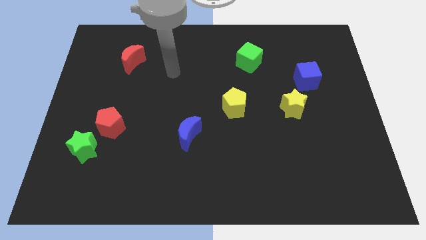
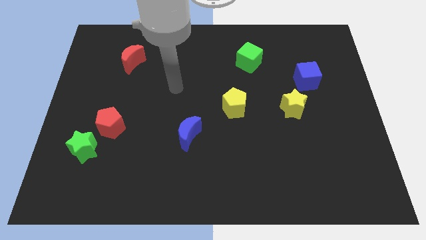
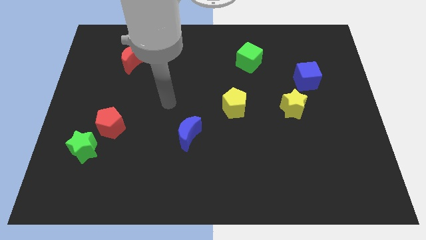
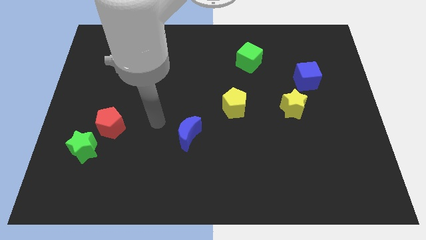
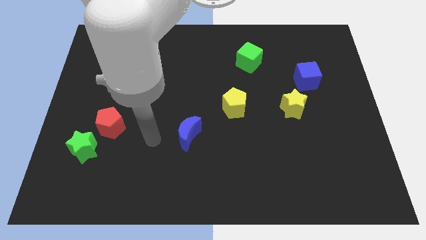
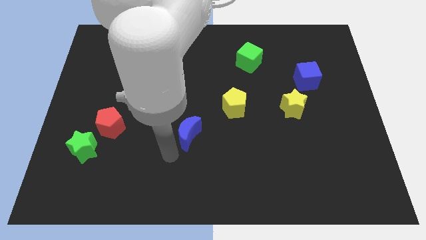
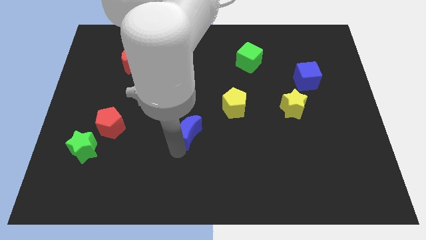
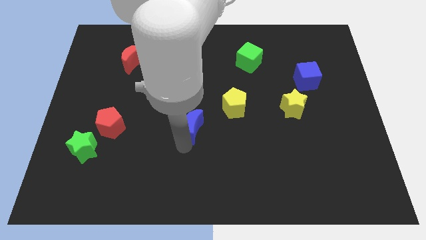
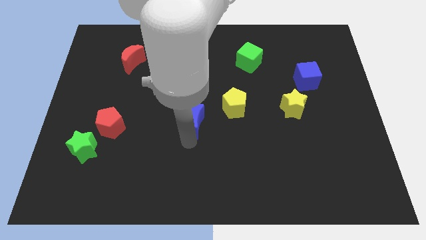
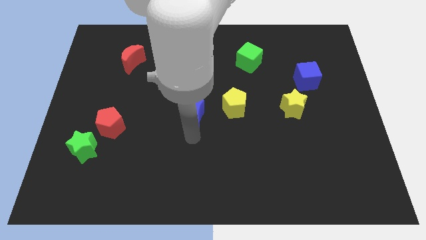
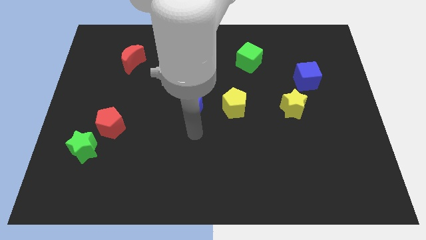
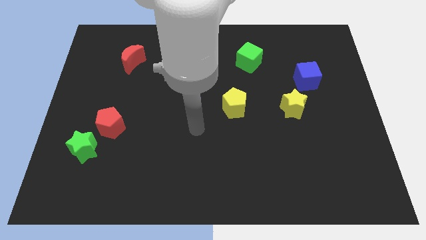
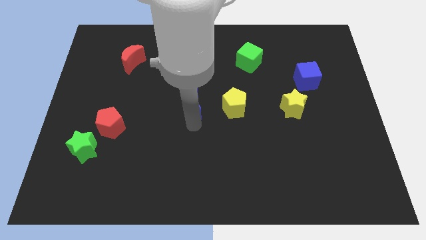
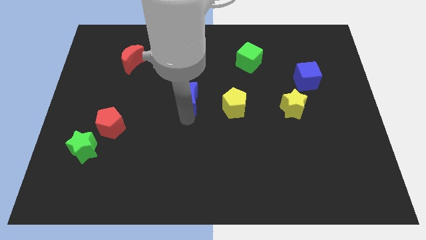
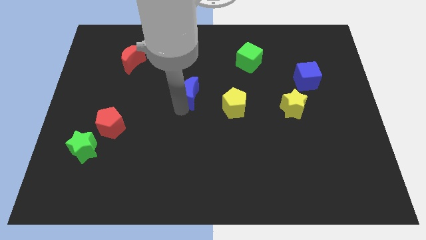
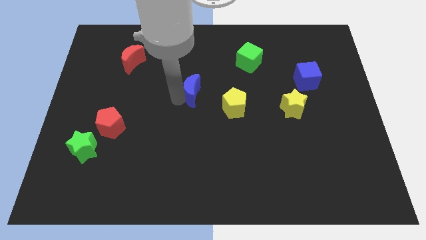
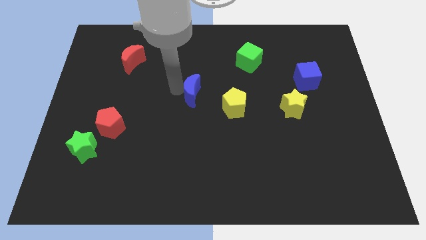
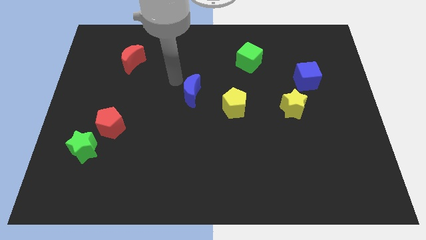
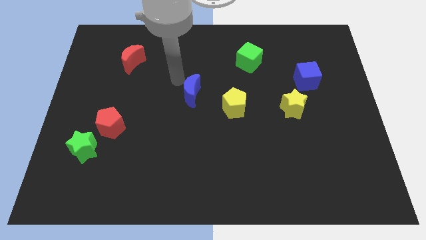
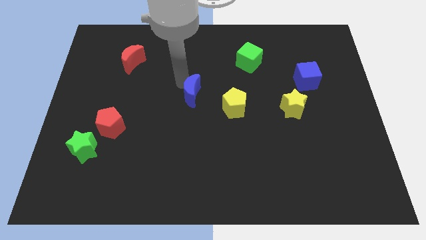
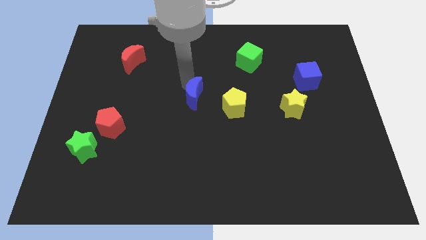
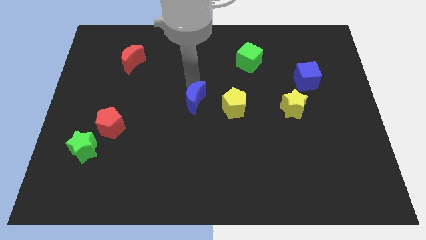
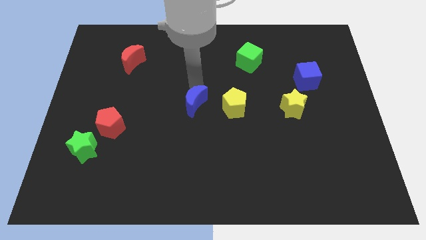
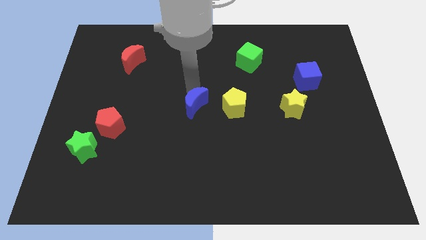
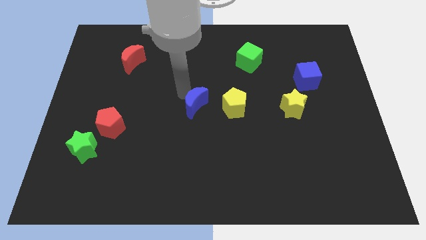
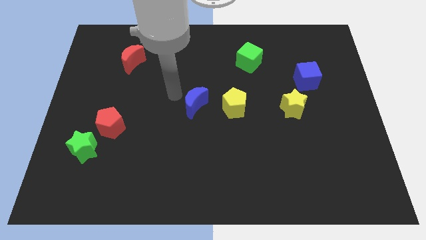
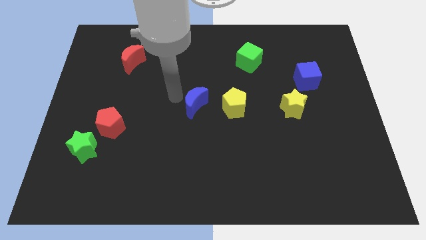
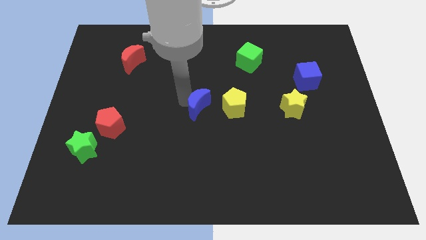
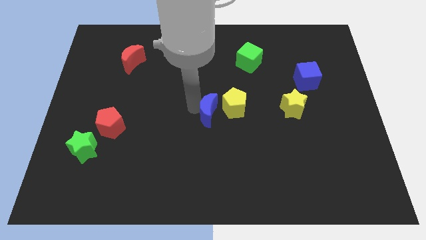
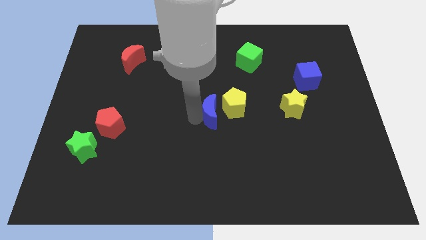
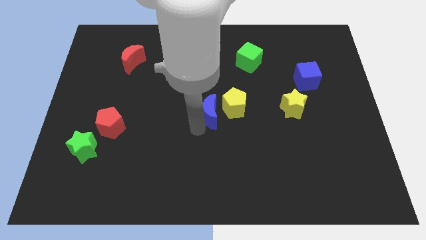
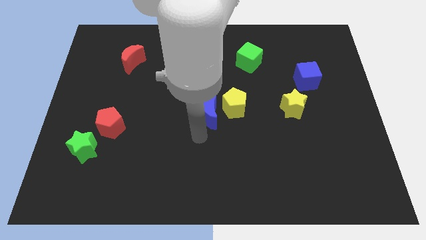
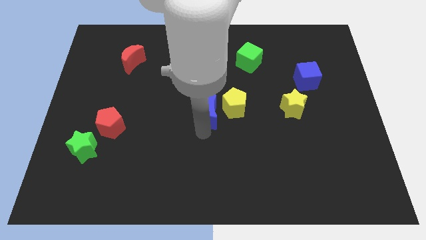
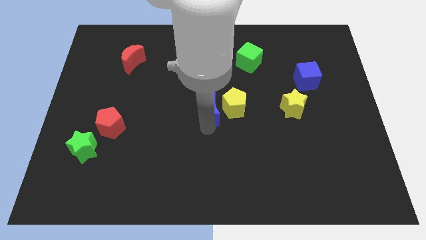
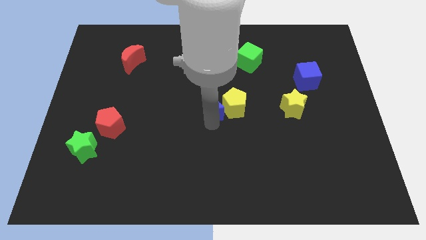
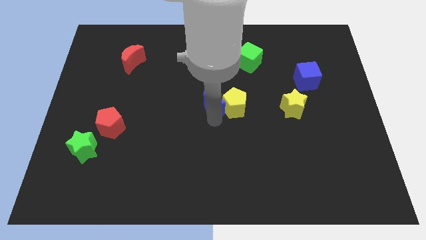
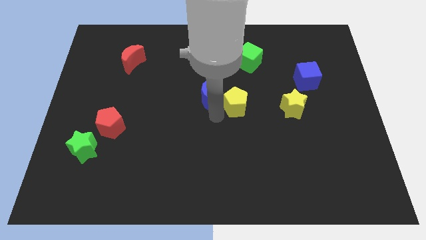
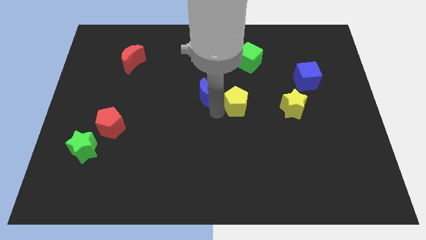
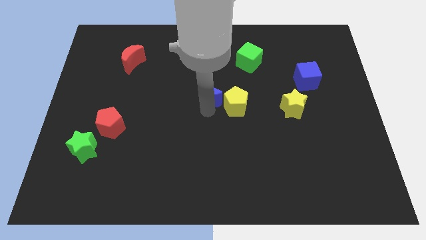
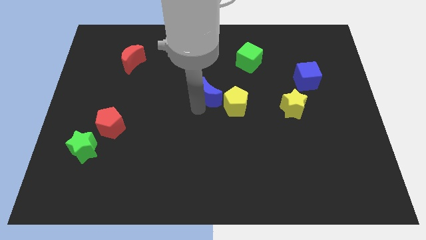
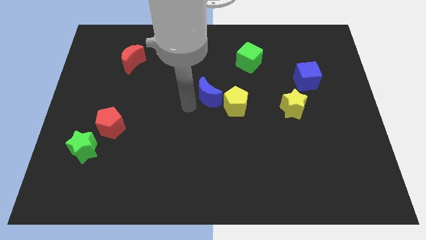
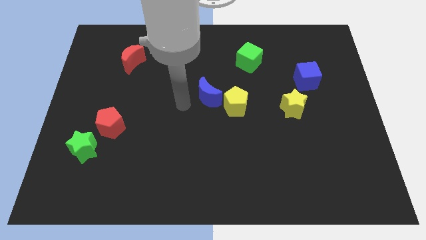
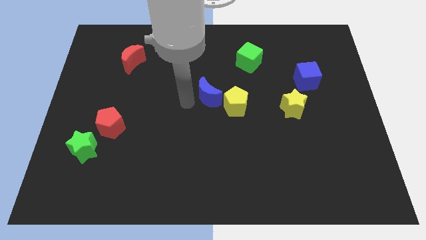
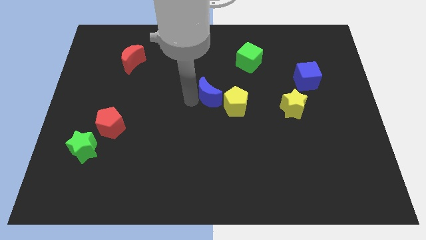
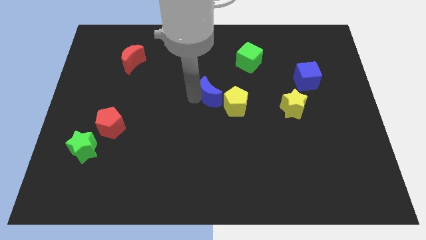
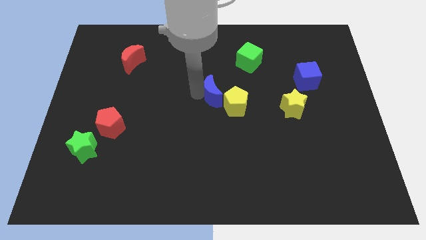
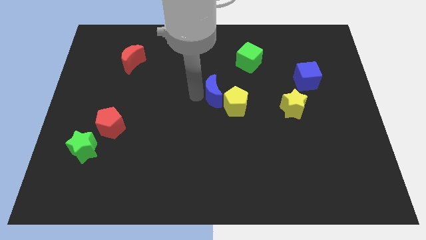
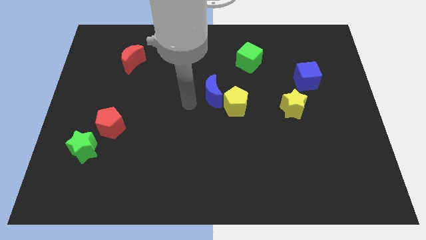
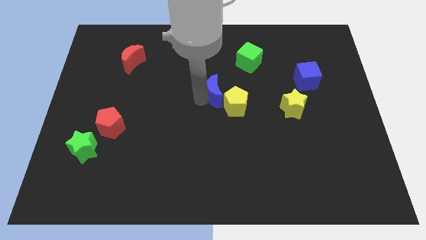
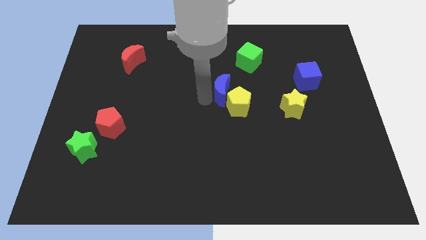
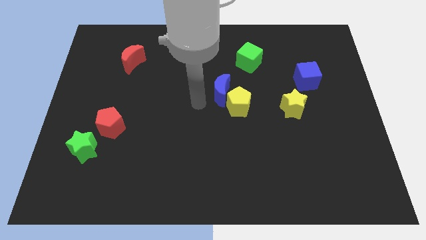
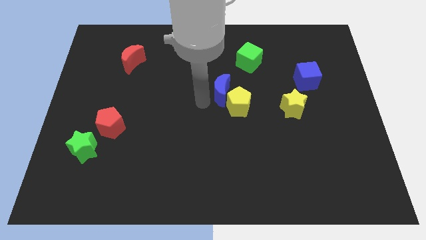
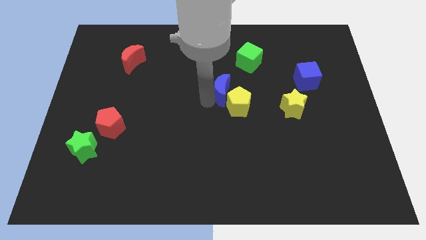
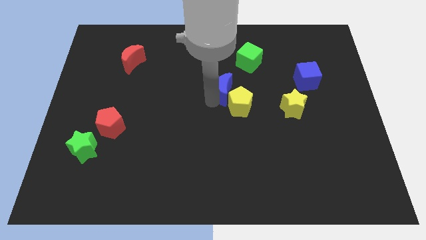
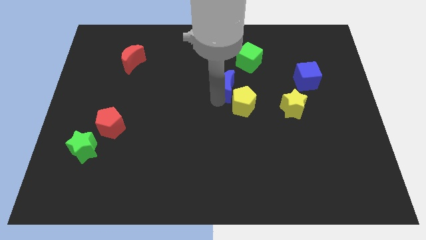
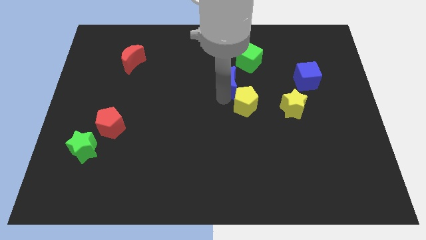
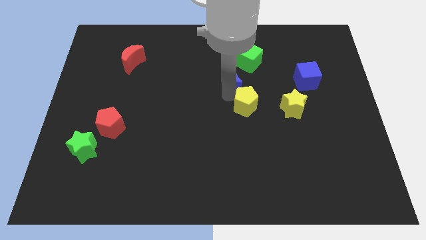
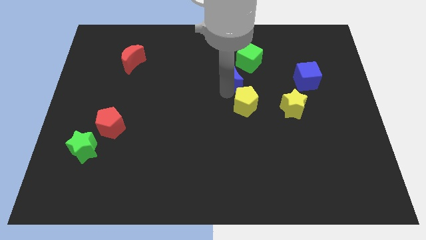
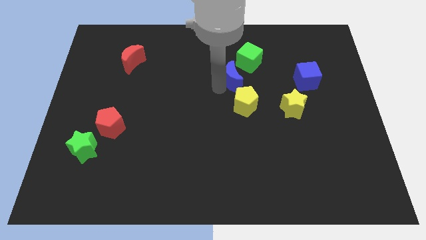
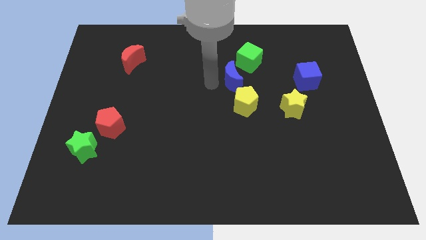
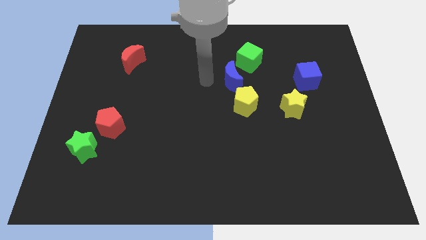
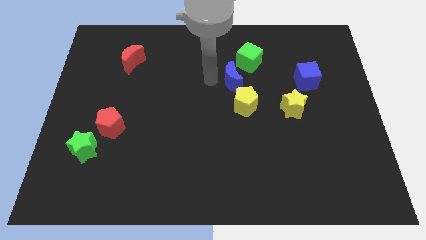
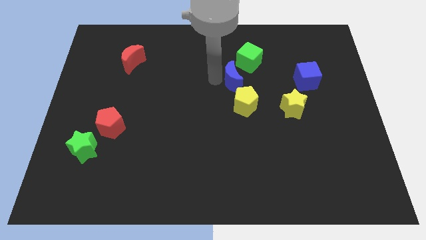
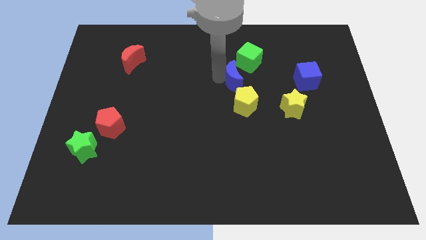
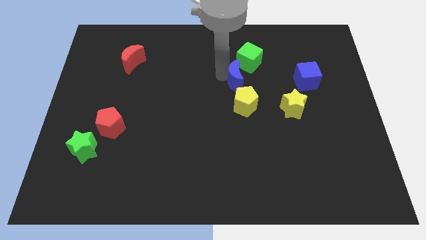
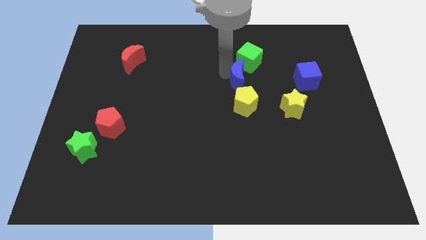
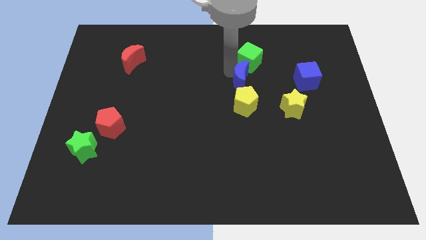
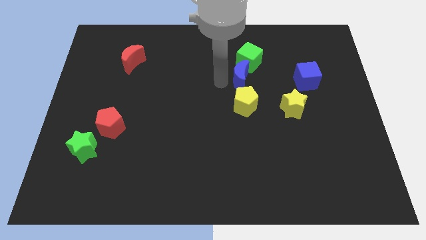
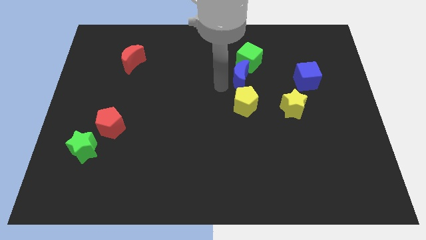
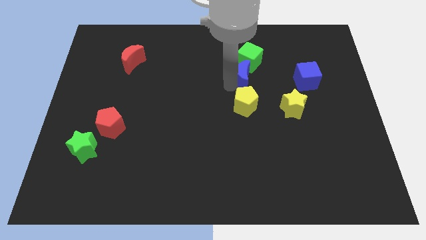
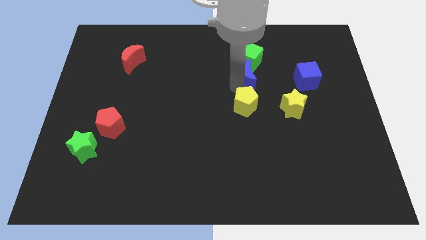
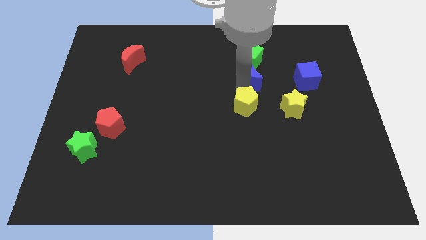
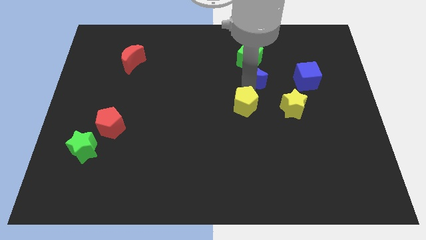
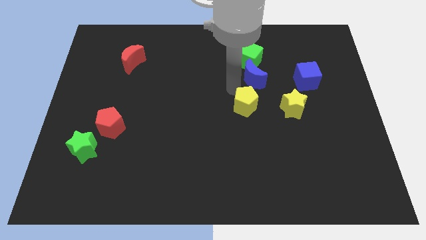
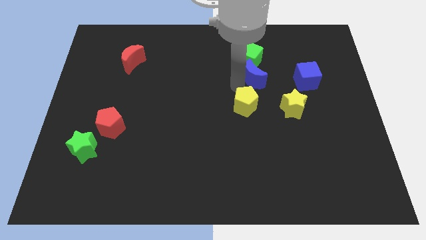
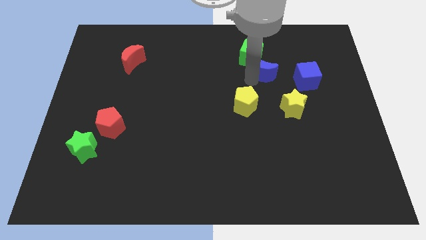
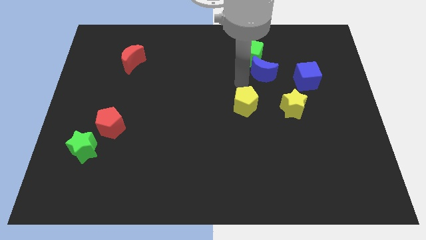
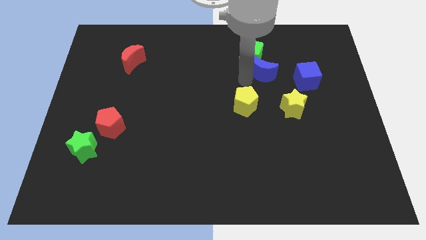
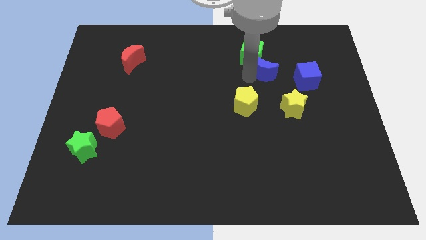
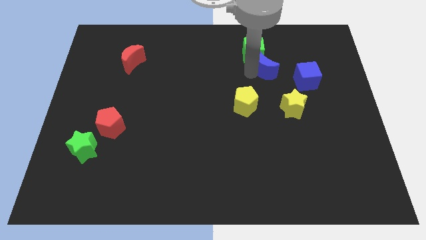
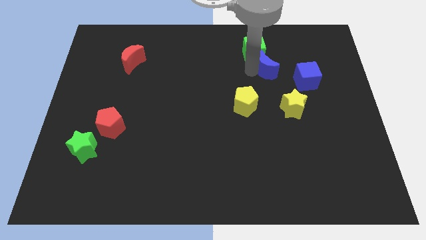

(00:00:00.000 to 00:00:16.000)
put the blue moon diagonally up and to the left of the blue cube
